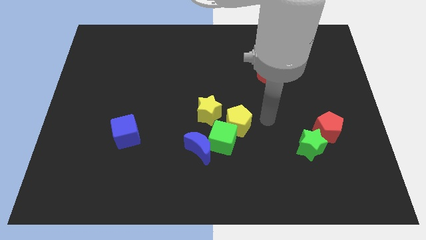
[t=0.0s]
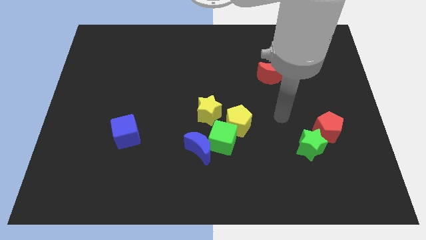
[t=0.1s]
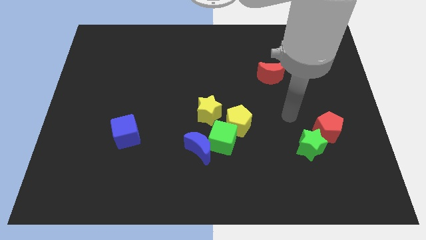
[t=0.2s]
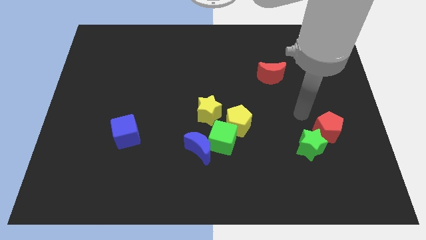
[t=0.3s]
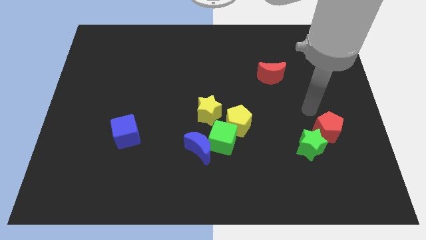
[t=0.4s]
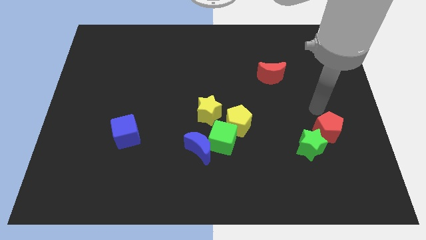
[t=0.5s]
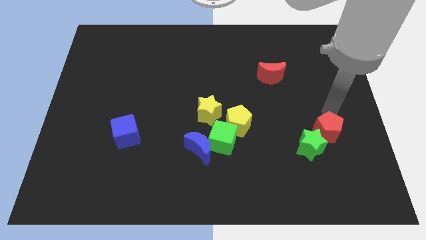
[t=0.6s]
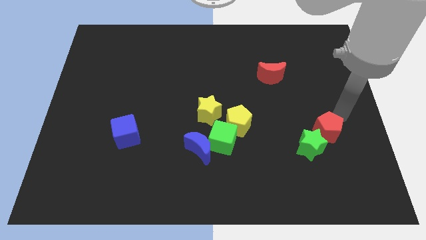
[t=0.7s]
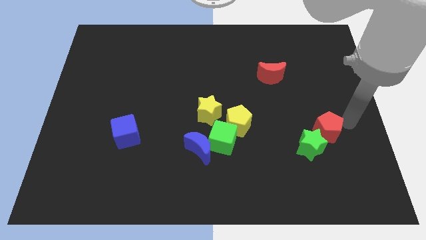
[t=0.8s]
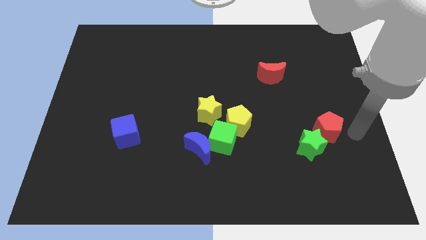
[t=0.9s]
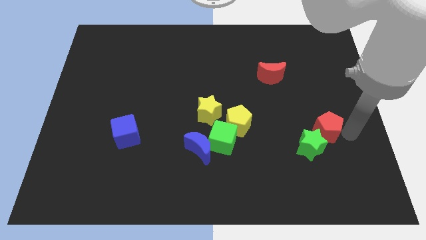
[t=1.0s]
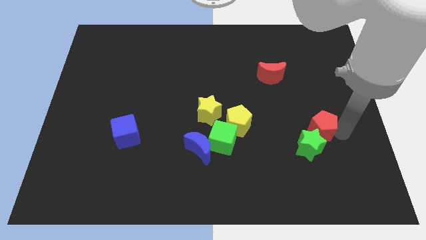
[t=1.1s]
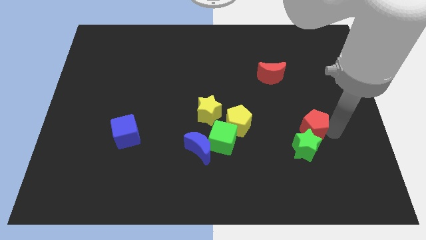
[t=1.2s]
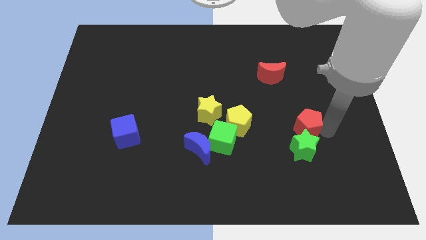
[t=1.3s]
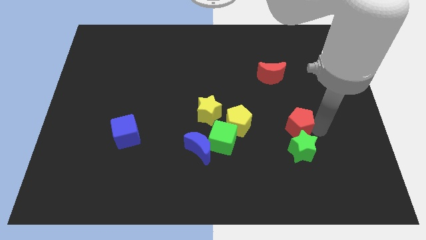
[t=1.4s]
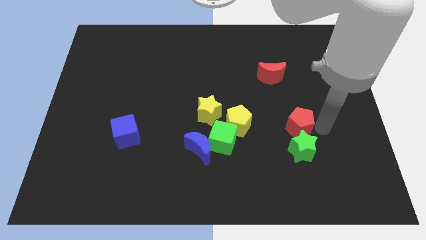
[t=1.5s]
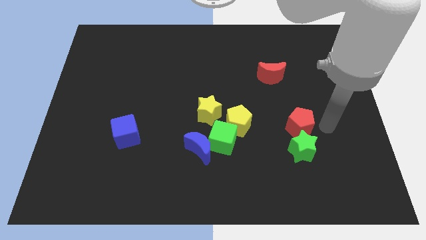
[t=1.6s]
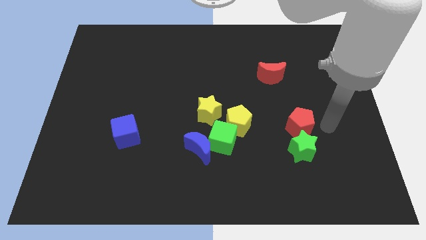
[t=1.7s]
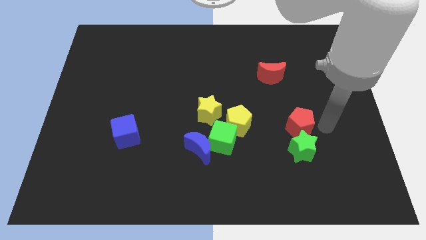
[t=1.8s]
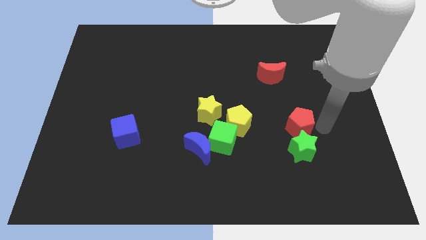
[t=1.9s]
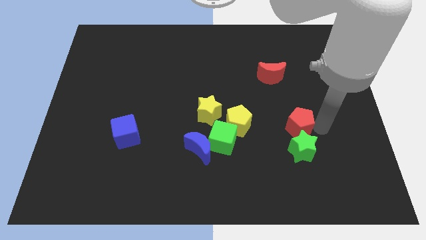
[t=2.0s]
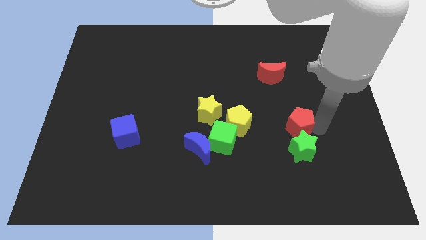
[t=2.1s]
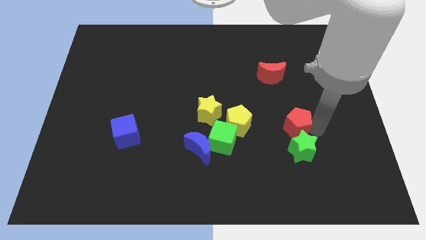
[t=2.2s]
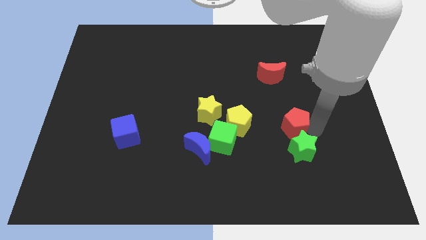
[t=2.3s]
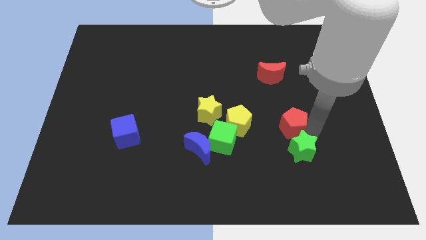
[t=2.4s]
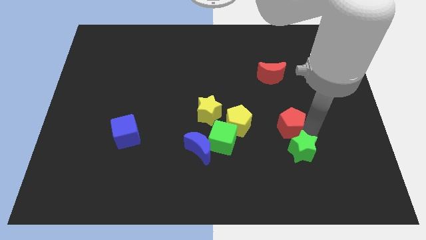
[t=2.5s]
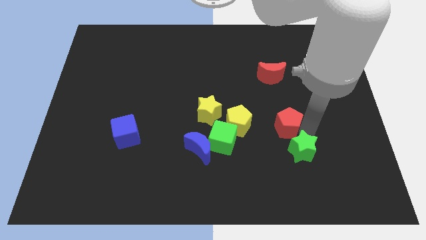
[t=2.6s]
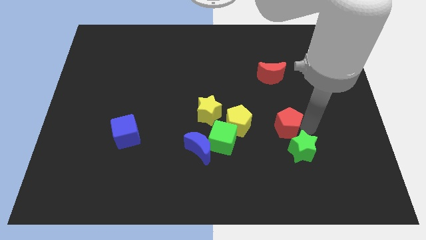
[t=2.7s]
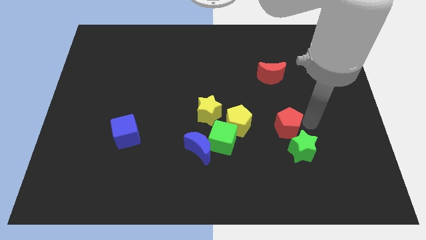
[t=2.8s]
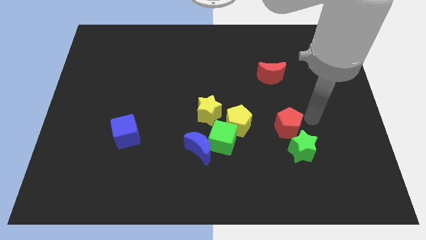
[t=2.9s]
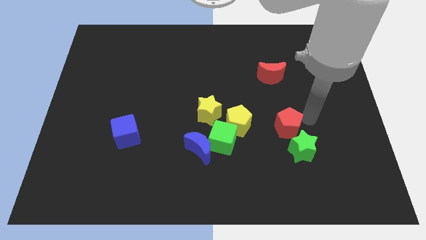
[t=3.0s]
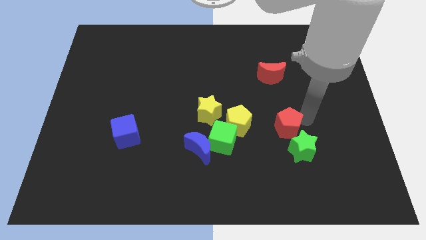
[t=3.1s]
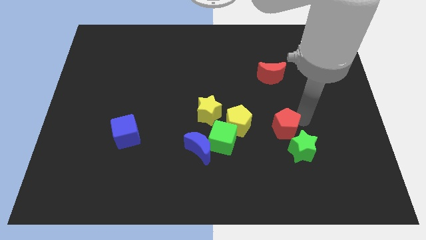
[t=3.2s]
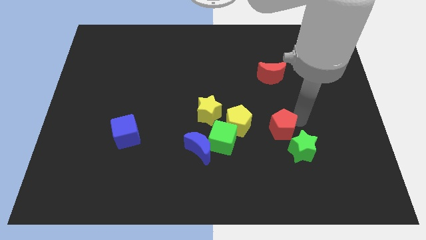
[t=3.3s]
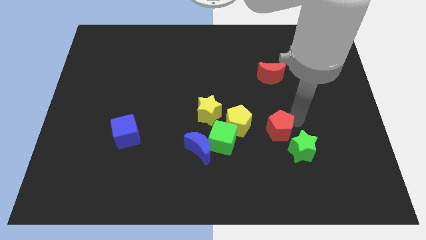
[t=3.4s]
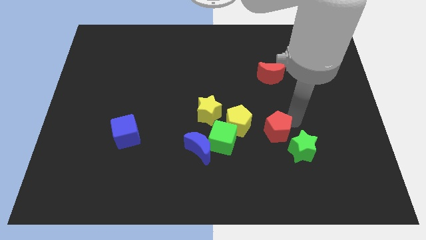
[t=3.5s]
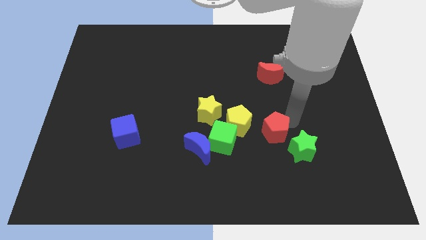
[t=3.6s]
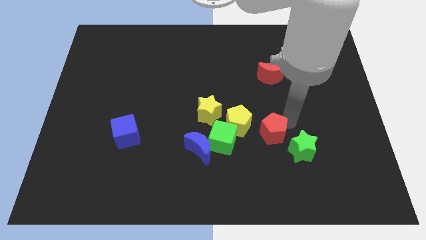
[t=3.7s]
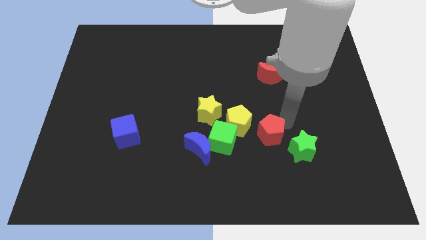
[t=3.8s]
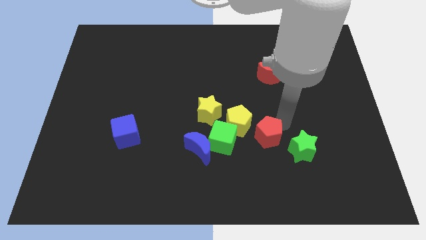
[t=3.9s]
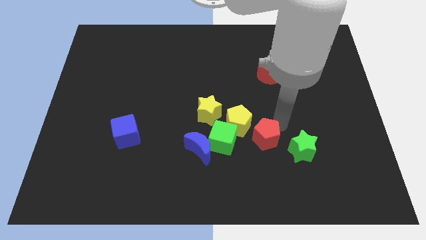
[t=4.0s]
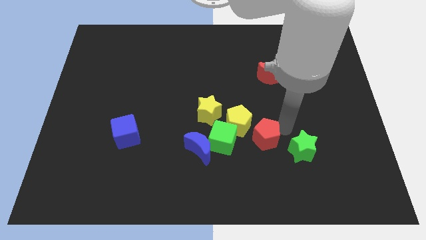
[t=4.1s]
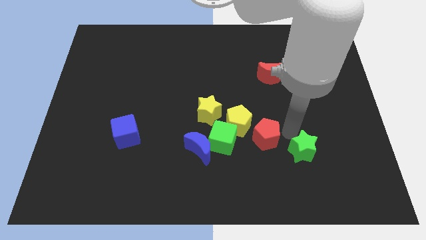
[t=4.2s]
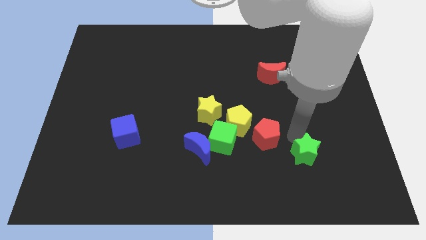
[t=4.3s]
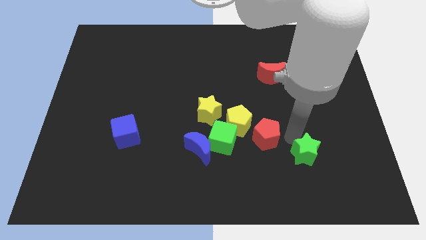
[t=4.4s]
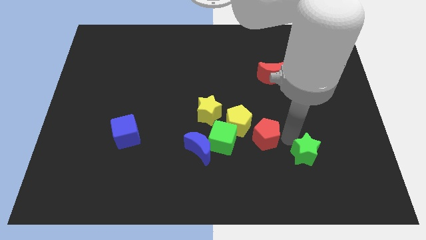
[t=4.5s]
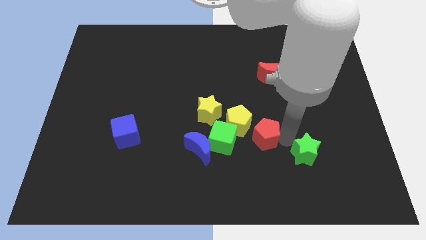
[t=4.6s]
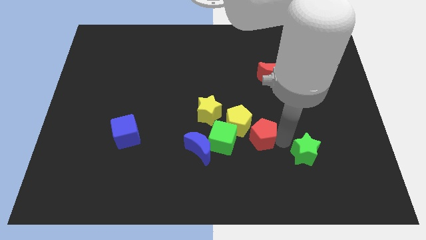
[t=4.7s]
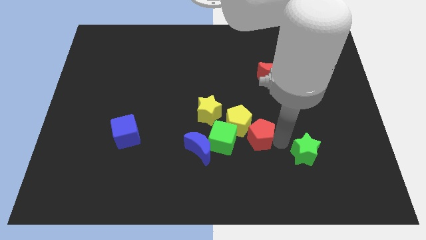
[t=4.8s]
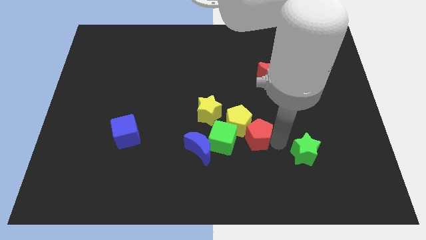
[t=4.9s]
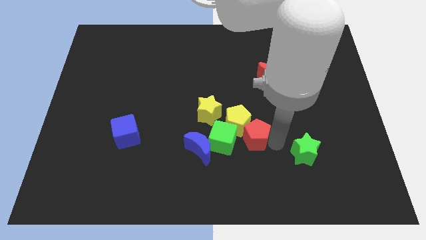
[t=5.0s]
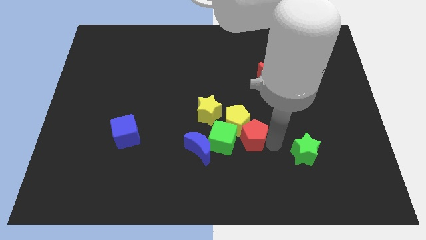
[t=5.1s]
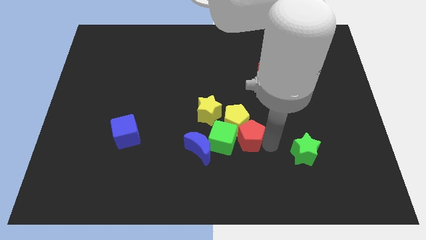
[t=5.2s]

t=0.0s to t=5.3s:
move the red pentagon to the green cube

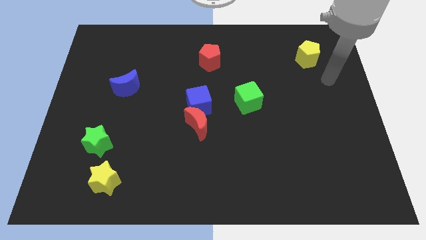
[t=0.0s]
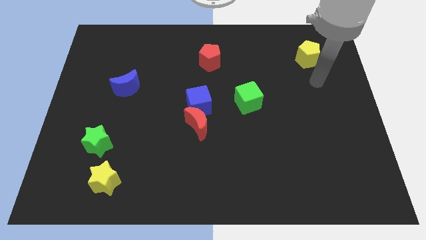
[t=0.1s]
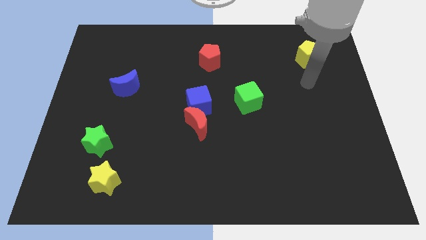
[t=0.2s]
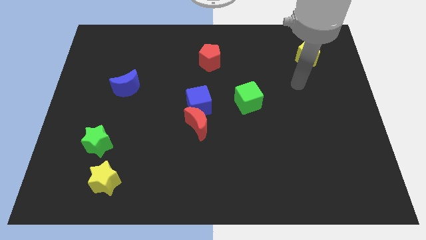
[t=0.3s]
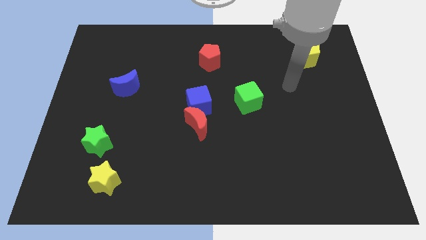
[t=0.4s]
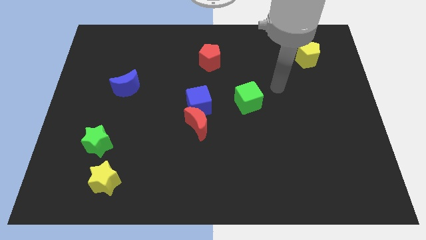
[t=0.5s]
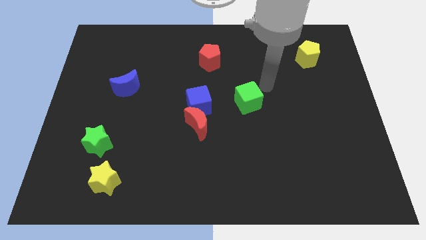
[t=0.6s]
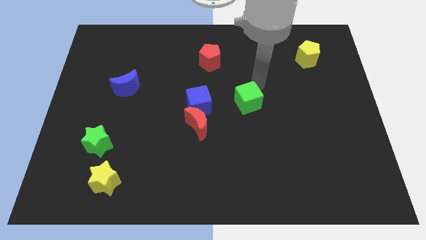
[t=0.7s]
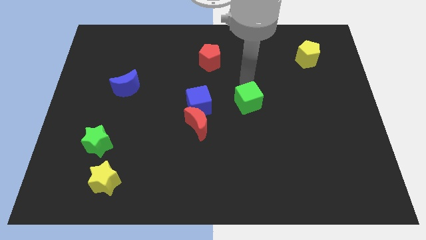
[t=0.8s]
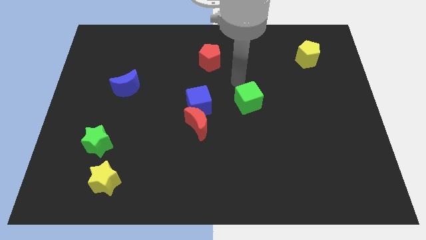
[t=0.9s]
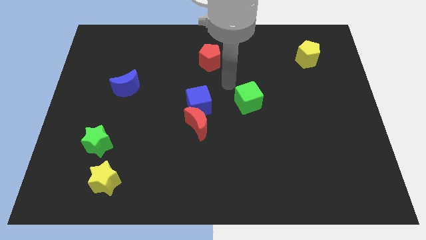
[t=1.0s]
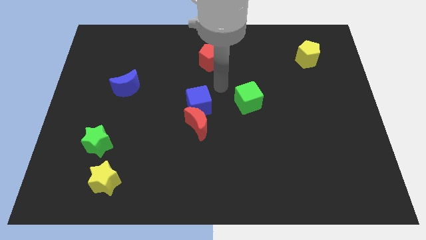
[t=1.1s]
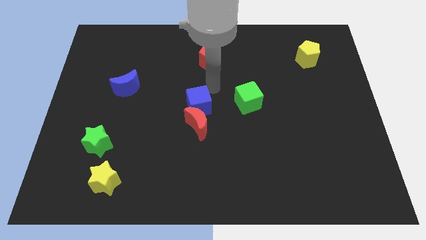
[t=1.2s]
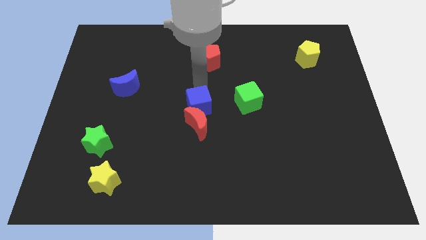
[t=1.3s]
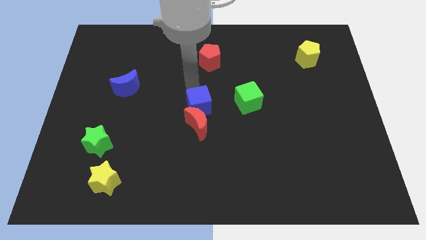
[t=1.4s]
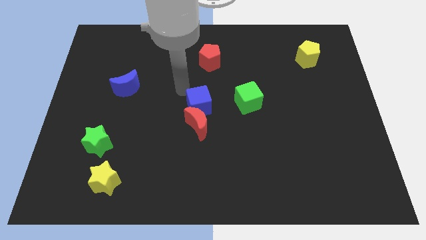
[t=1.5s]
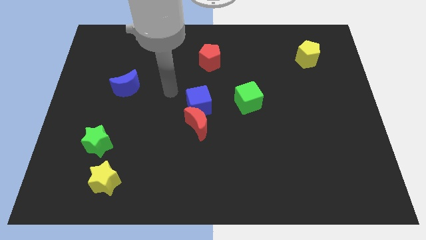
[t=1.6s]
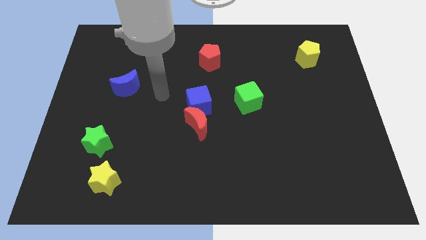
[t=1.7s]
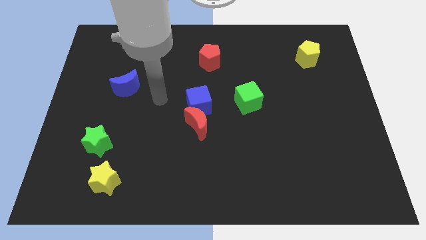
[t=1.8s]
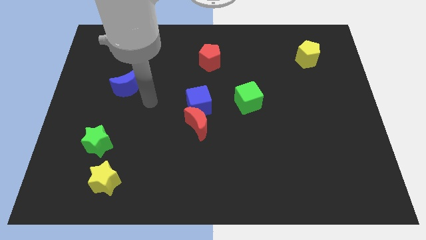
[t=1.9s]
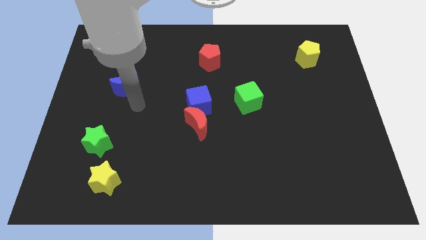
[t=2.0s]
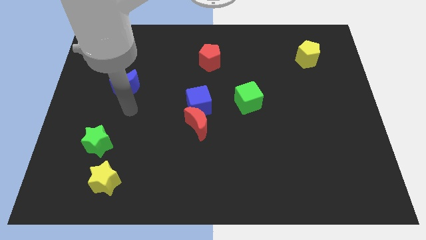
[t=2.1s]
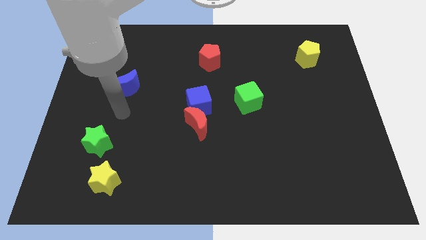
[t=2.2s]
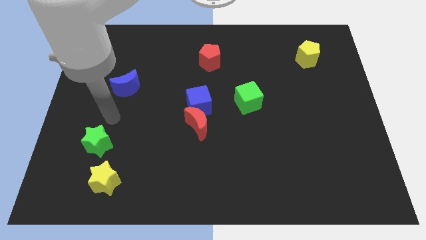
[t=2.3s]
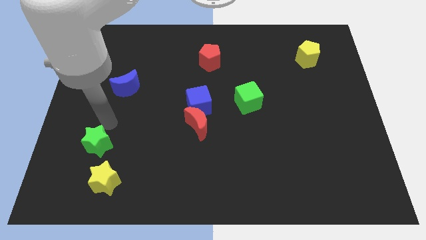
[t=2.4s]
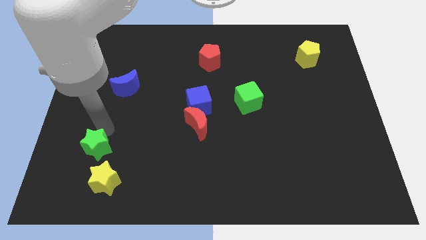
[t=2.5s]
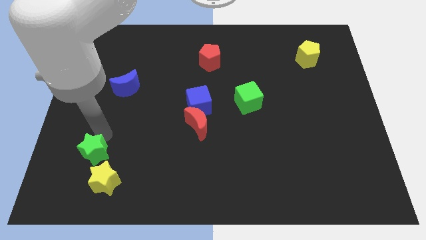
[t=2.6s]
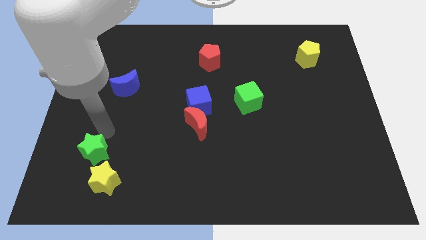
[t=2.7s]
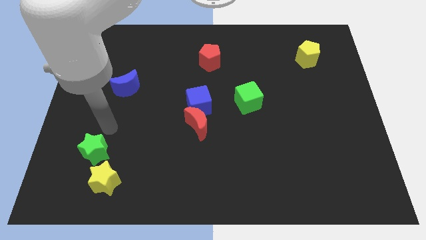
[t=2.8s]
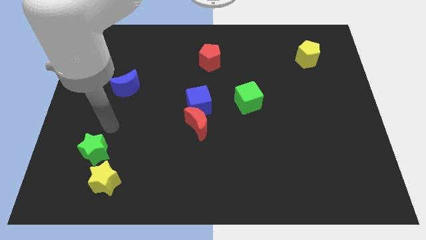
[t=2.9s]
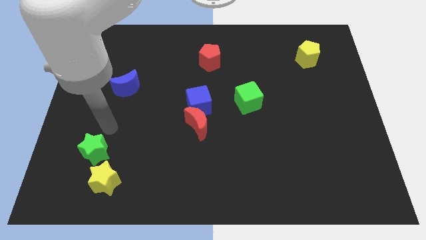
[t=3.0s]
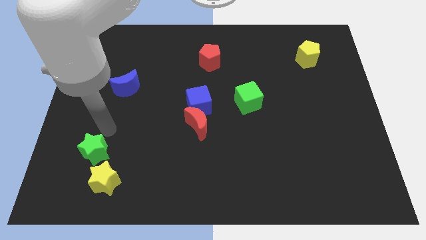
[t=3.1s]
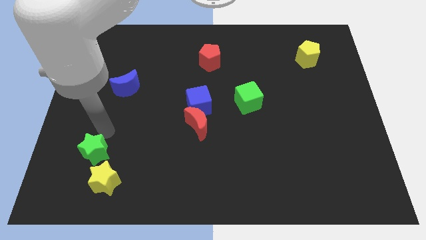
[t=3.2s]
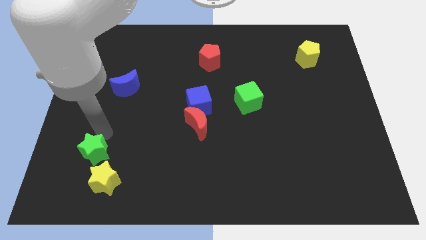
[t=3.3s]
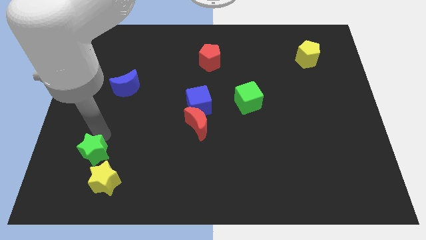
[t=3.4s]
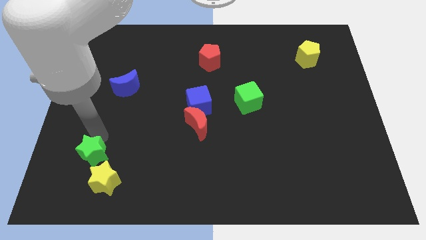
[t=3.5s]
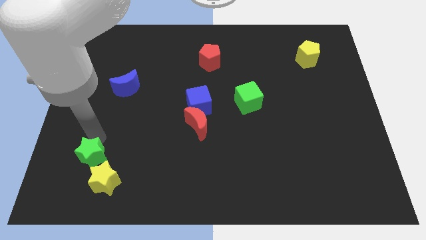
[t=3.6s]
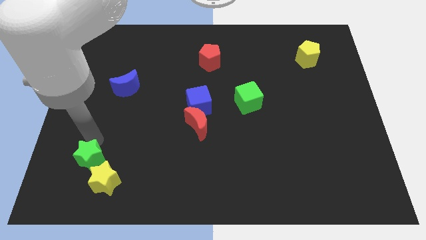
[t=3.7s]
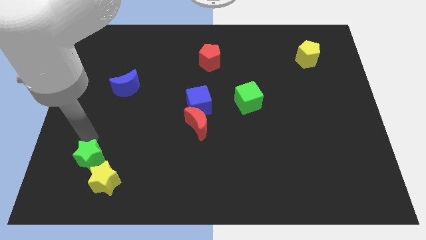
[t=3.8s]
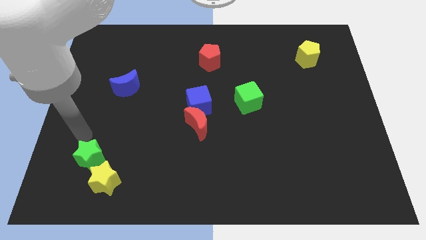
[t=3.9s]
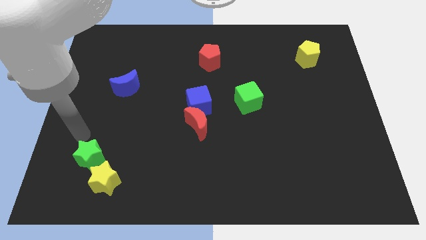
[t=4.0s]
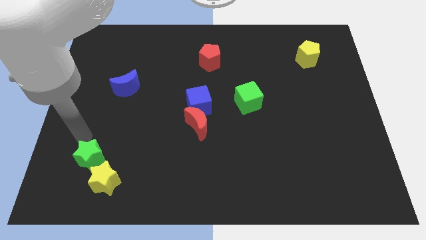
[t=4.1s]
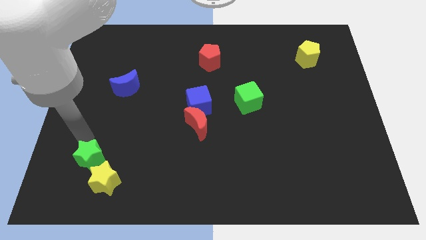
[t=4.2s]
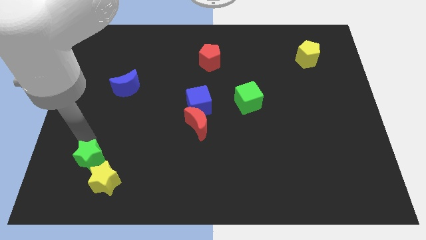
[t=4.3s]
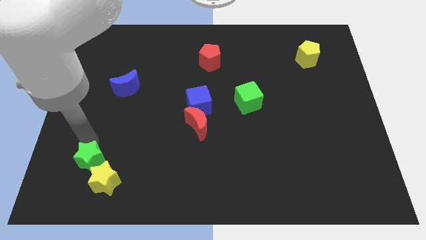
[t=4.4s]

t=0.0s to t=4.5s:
slide the green star close to the yellow star
